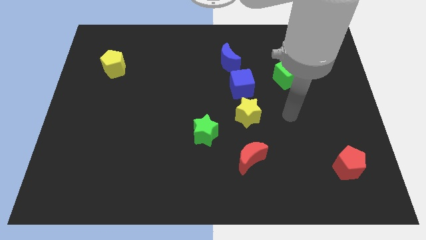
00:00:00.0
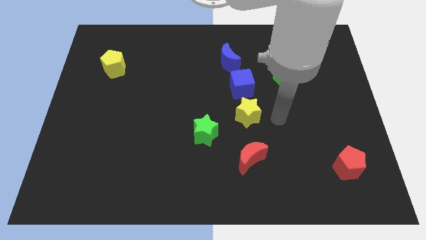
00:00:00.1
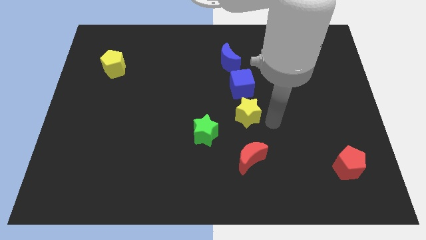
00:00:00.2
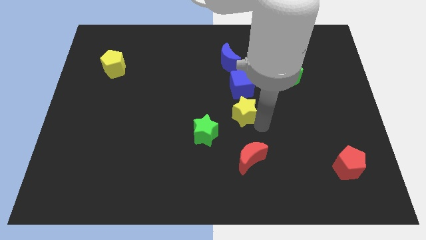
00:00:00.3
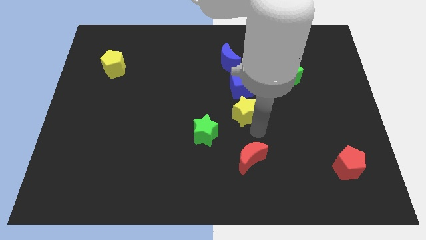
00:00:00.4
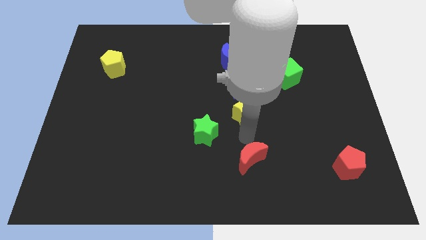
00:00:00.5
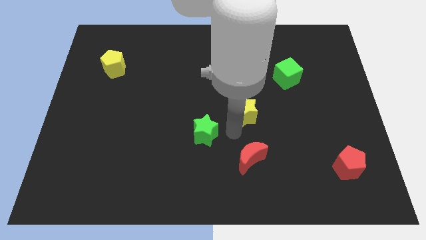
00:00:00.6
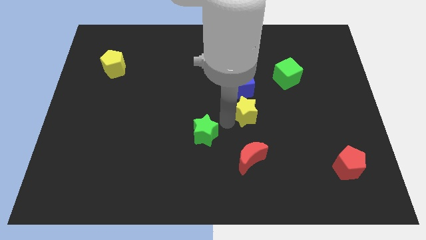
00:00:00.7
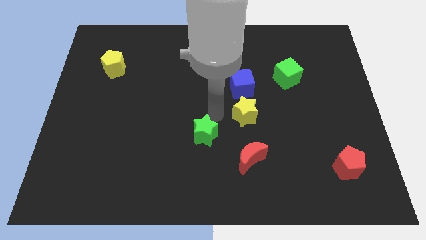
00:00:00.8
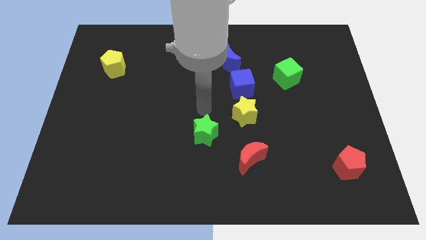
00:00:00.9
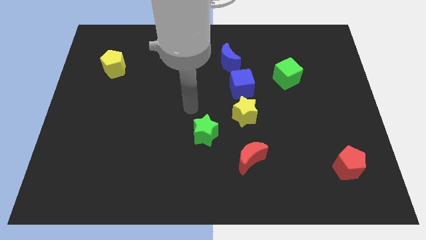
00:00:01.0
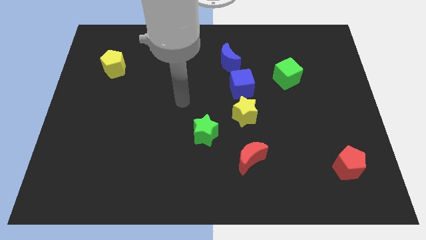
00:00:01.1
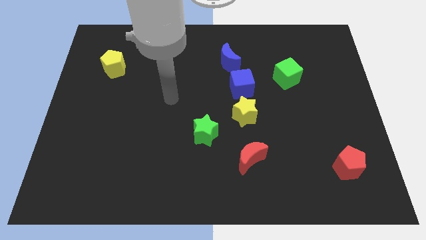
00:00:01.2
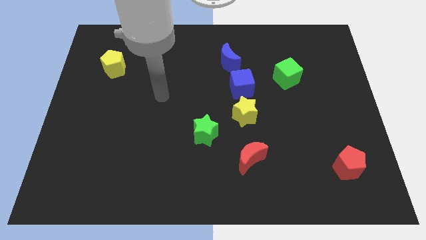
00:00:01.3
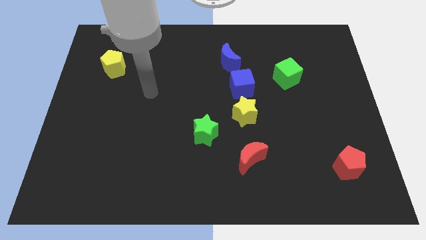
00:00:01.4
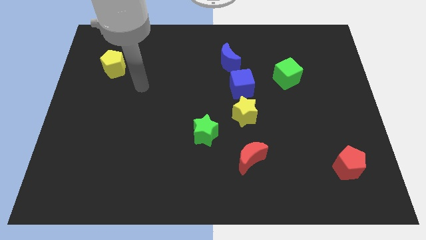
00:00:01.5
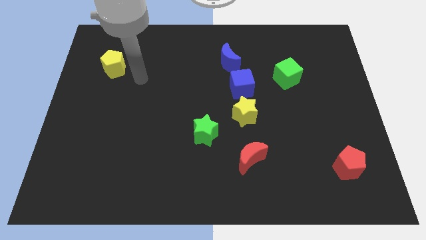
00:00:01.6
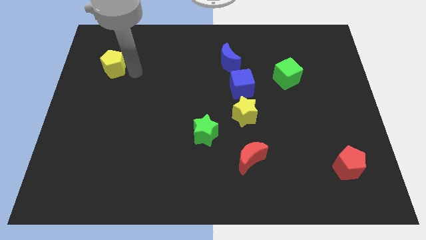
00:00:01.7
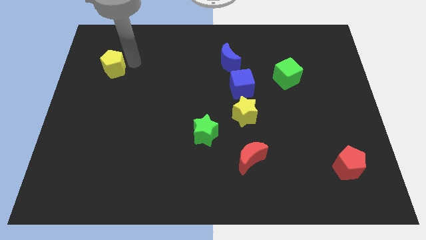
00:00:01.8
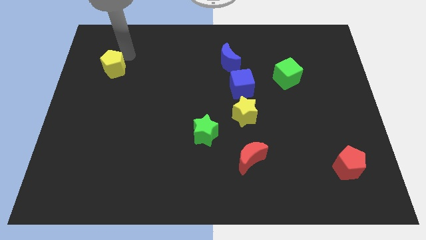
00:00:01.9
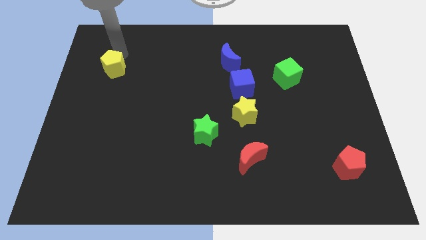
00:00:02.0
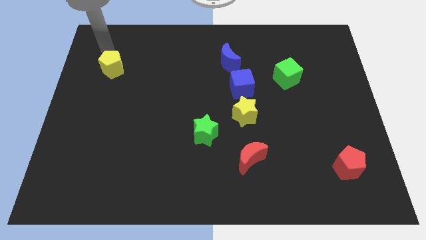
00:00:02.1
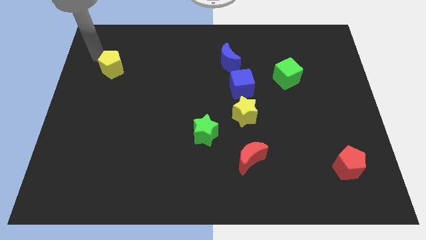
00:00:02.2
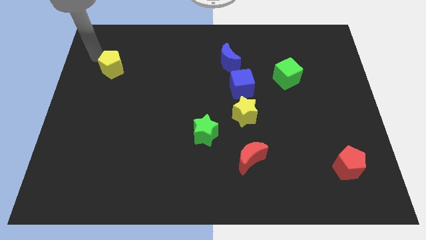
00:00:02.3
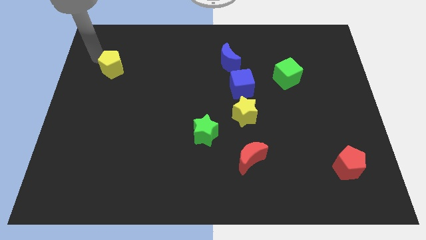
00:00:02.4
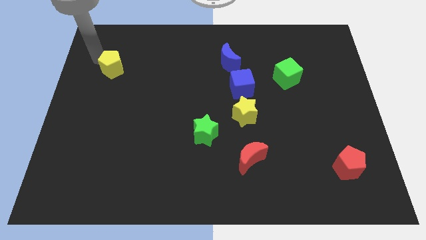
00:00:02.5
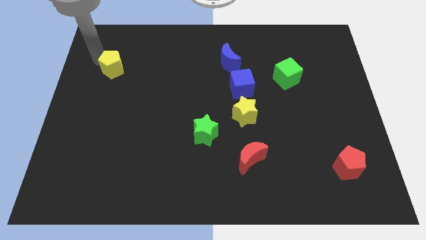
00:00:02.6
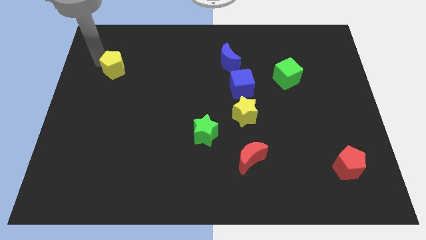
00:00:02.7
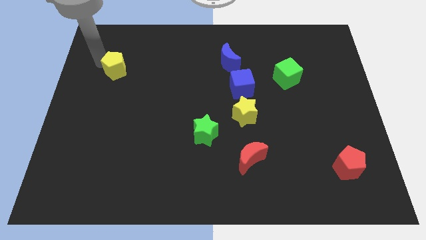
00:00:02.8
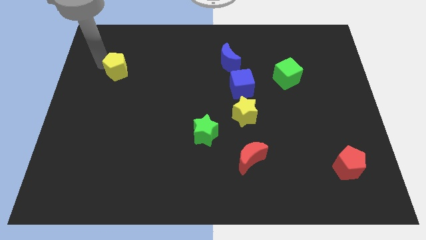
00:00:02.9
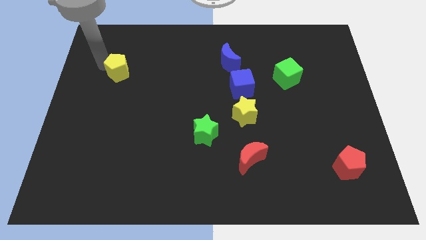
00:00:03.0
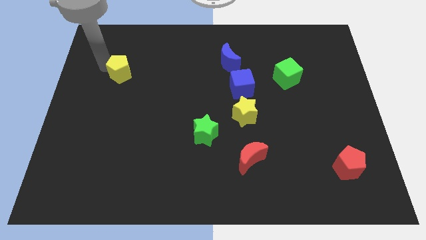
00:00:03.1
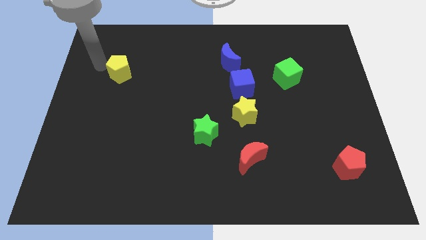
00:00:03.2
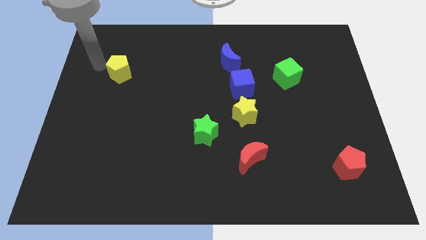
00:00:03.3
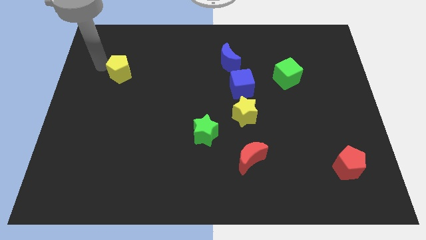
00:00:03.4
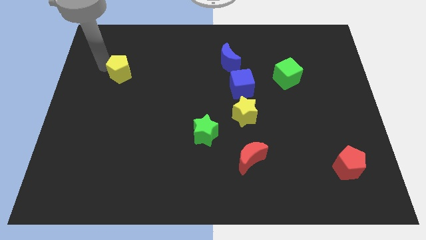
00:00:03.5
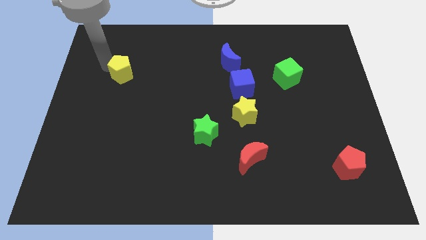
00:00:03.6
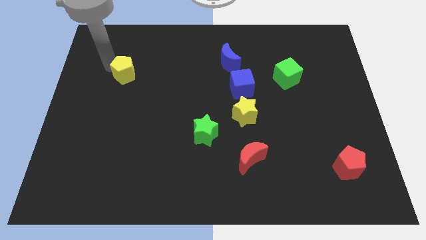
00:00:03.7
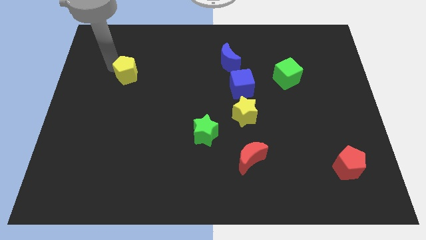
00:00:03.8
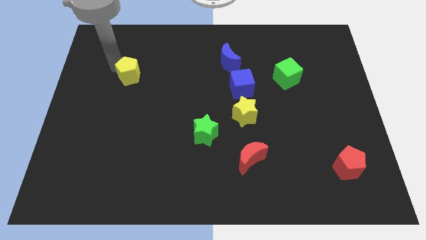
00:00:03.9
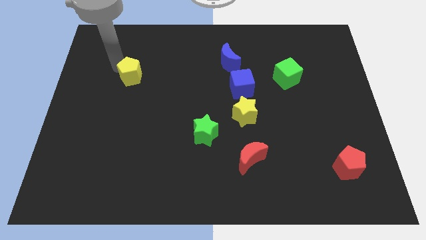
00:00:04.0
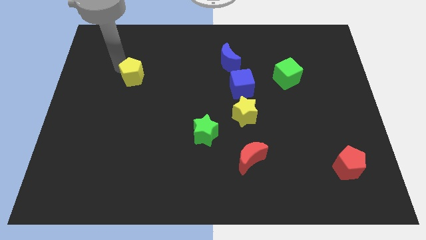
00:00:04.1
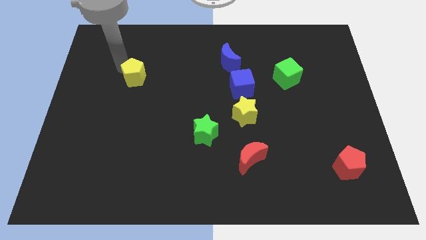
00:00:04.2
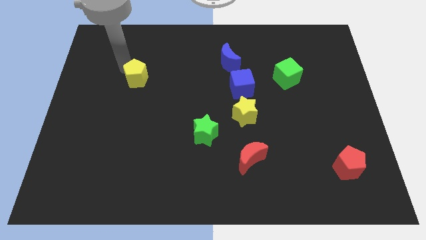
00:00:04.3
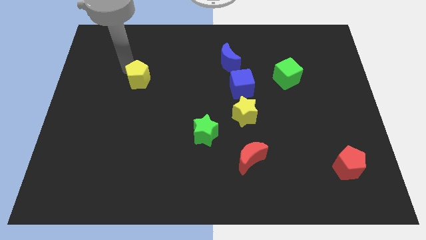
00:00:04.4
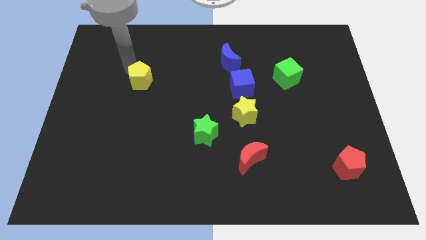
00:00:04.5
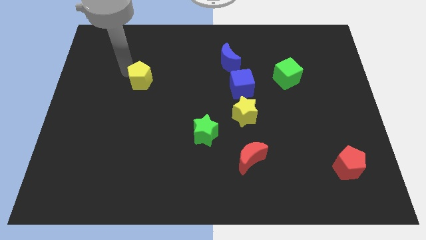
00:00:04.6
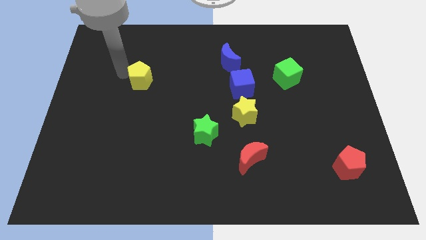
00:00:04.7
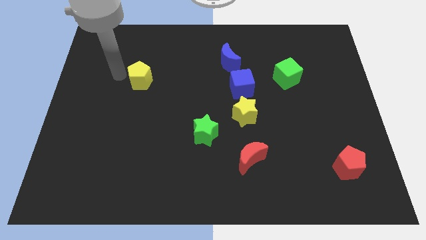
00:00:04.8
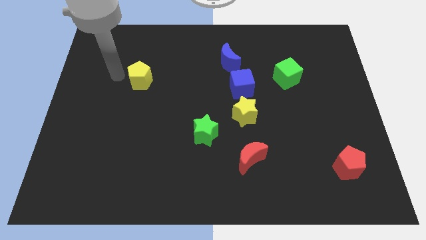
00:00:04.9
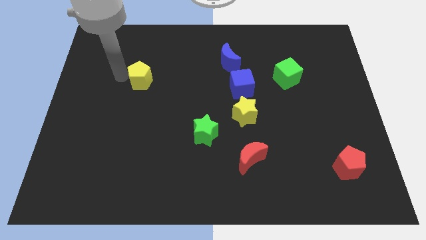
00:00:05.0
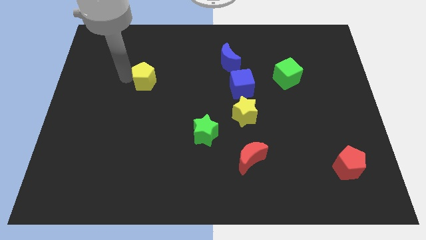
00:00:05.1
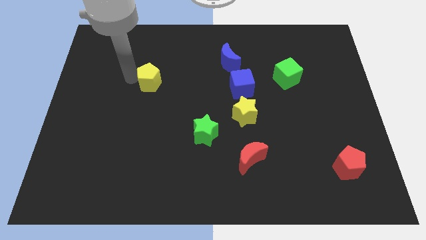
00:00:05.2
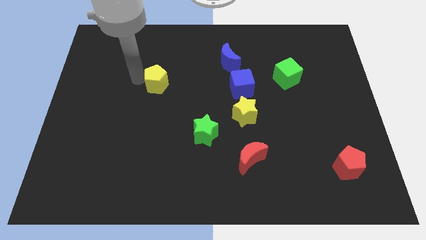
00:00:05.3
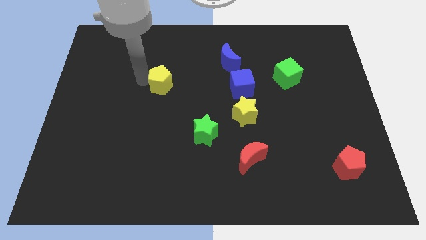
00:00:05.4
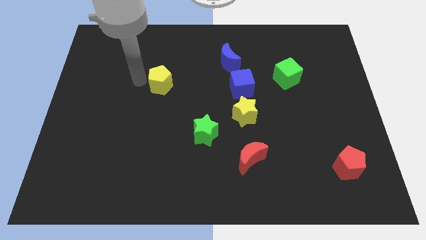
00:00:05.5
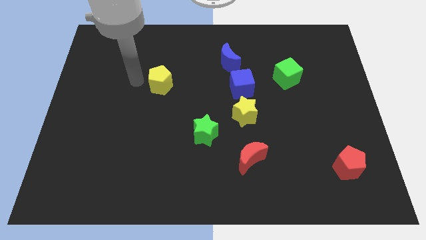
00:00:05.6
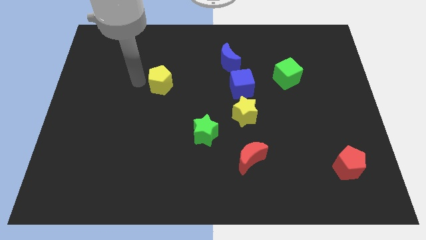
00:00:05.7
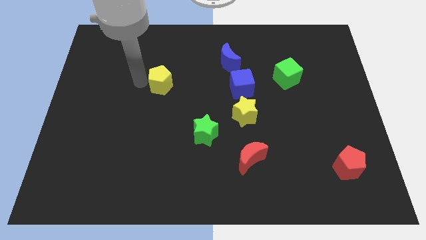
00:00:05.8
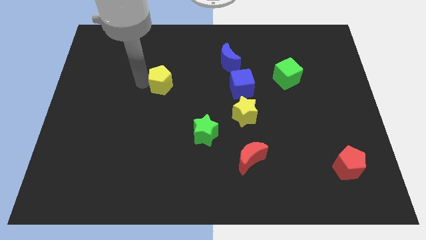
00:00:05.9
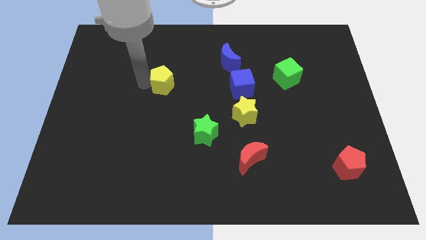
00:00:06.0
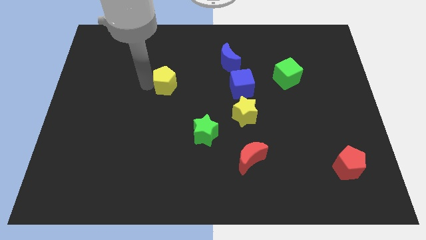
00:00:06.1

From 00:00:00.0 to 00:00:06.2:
move the yellow pentagon to the middle
